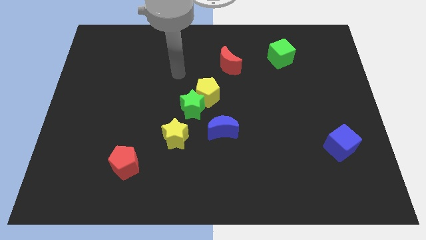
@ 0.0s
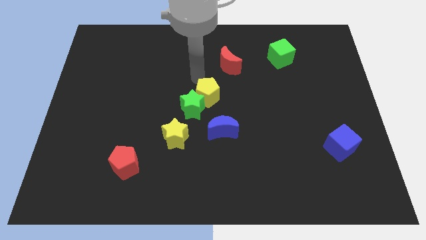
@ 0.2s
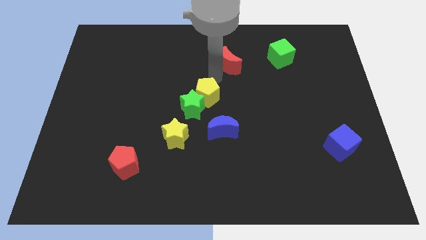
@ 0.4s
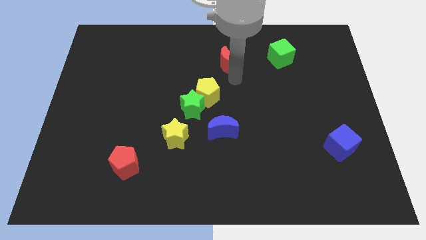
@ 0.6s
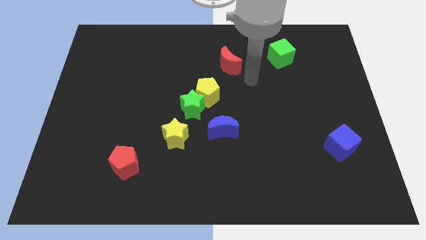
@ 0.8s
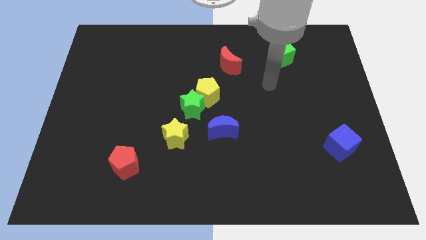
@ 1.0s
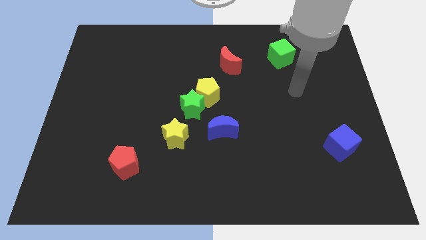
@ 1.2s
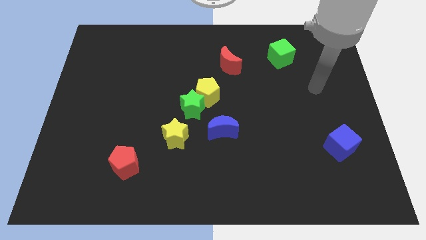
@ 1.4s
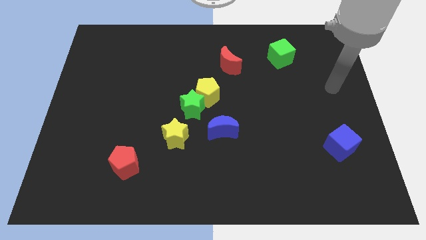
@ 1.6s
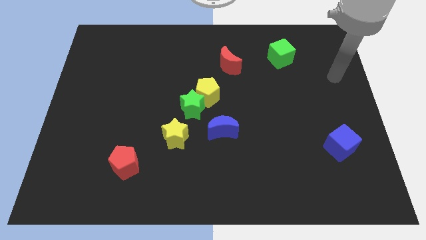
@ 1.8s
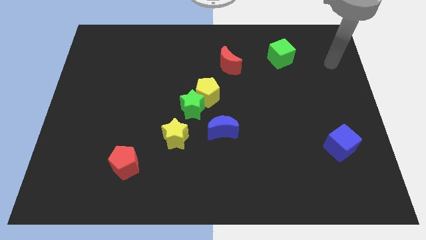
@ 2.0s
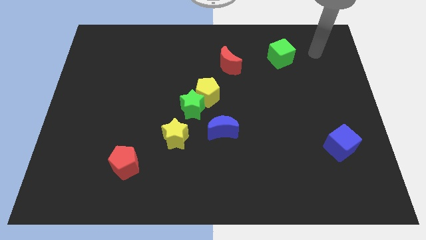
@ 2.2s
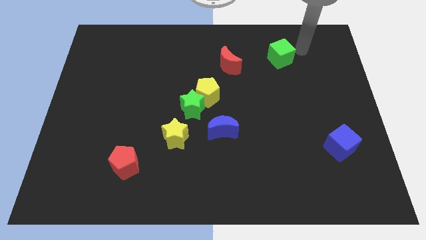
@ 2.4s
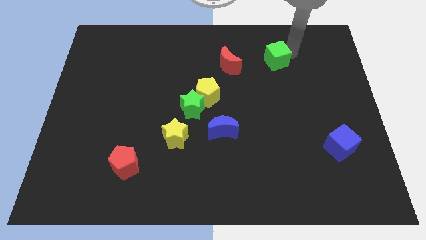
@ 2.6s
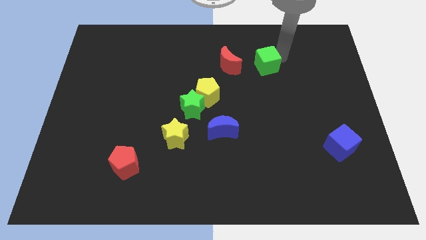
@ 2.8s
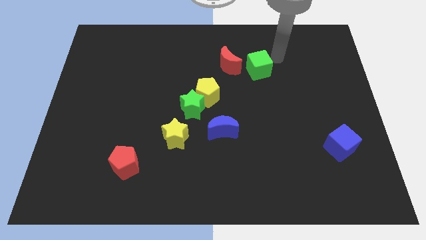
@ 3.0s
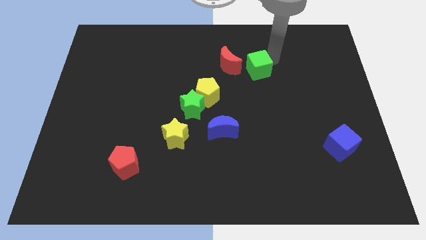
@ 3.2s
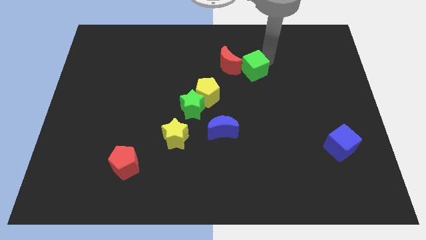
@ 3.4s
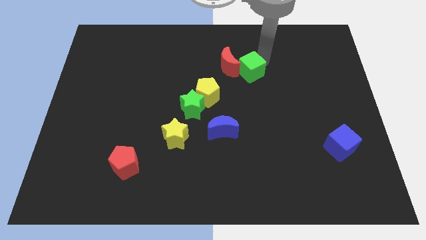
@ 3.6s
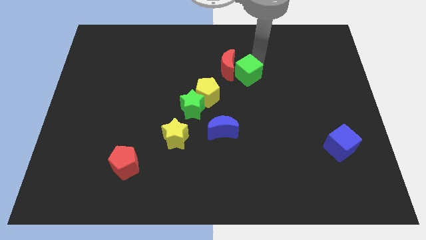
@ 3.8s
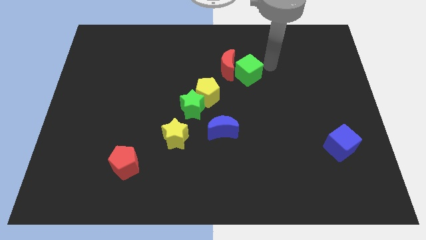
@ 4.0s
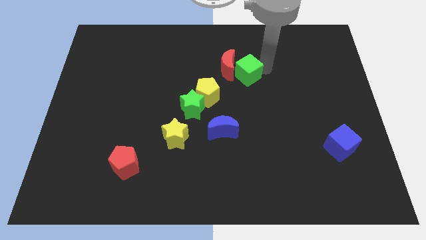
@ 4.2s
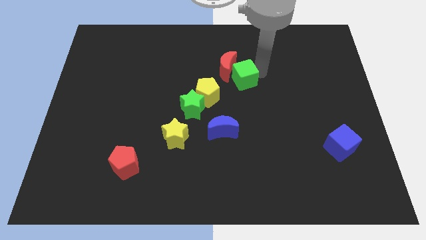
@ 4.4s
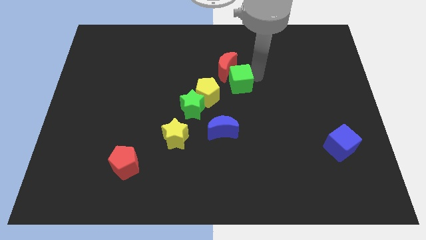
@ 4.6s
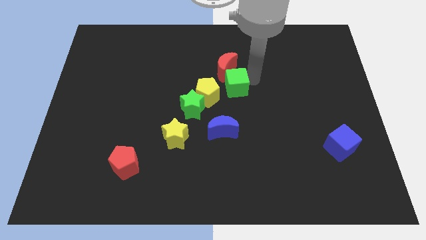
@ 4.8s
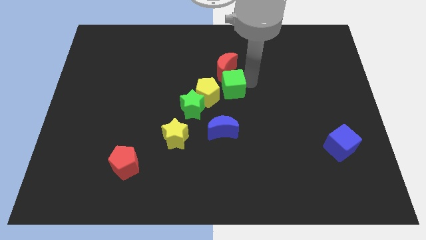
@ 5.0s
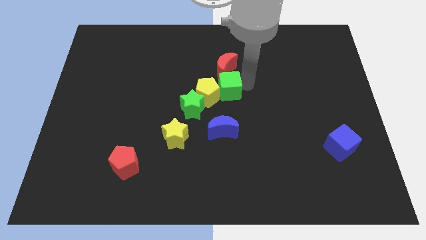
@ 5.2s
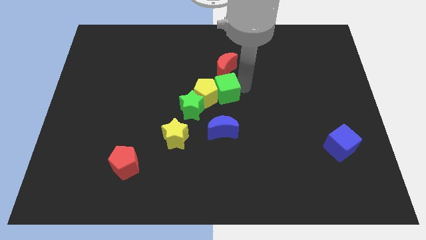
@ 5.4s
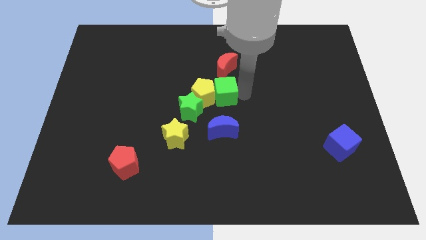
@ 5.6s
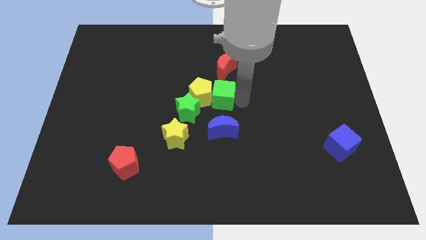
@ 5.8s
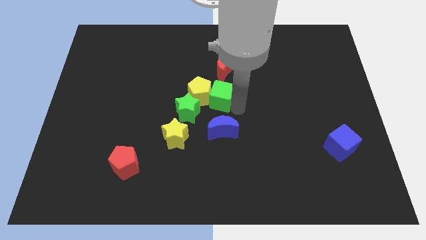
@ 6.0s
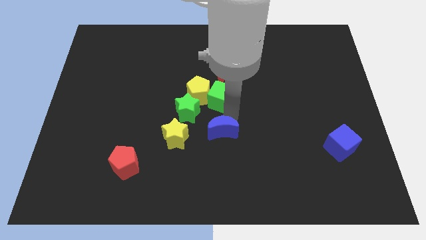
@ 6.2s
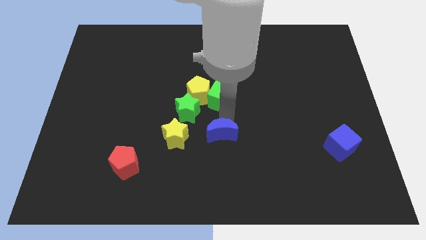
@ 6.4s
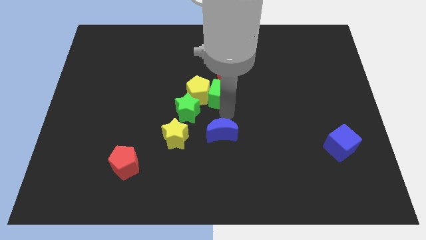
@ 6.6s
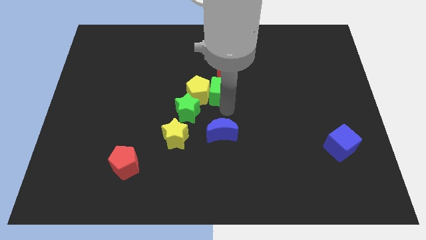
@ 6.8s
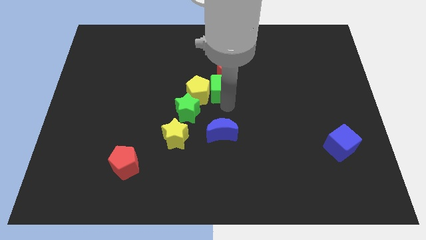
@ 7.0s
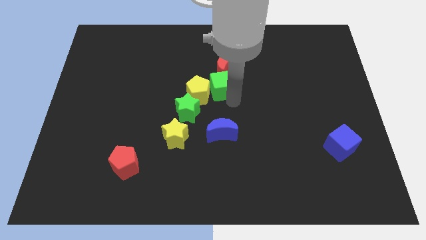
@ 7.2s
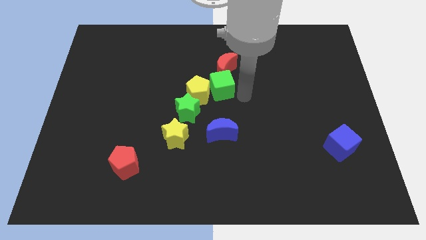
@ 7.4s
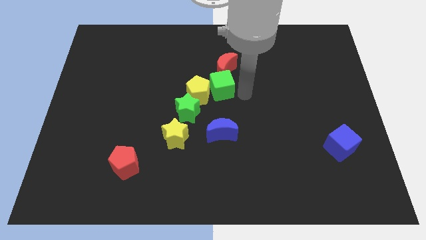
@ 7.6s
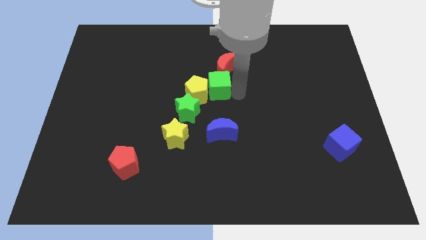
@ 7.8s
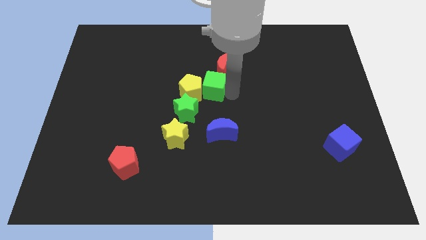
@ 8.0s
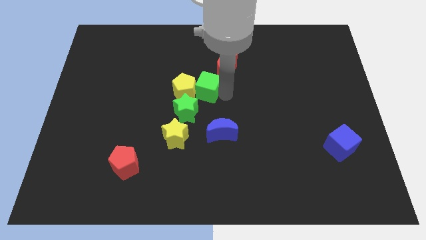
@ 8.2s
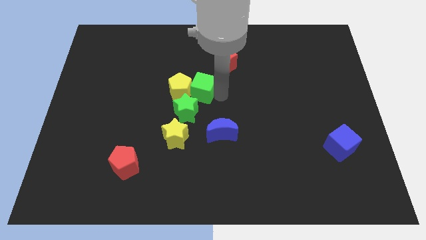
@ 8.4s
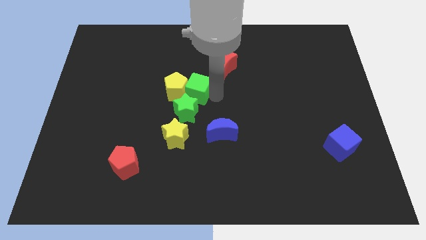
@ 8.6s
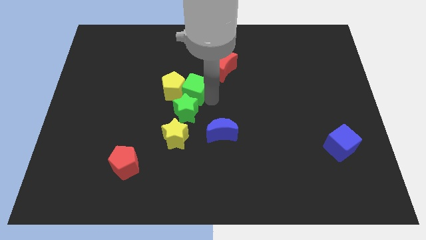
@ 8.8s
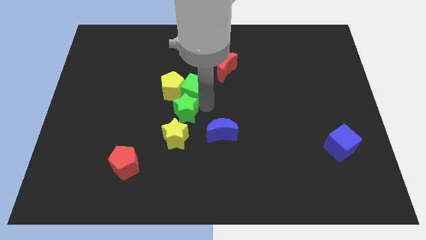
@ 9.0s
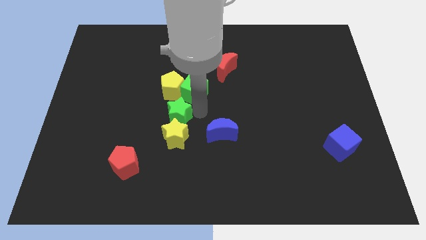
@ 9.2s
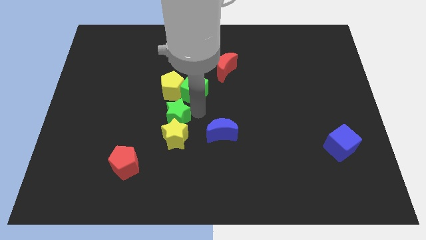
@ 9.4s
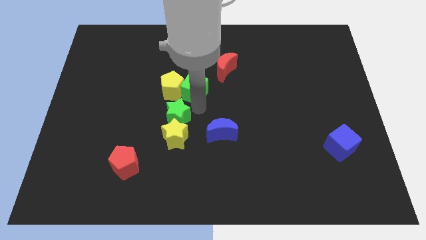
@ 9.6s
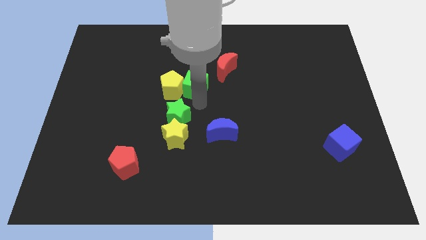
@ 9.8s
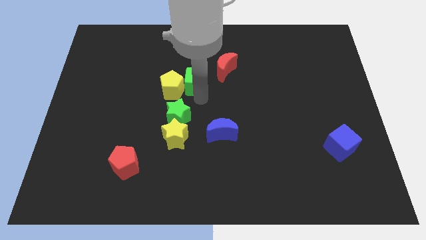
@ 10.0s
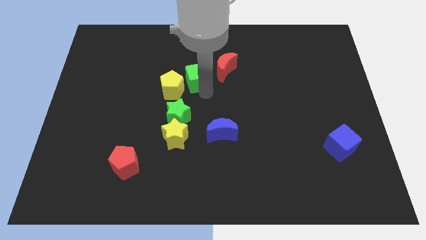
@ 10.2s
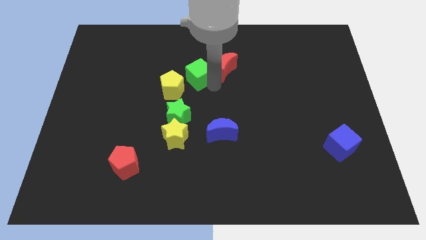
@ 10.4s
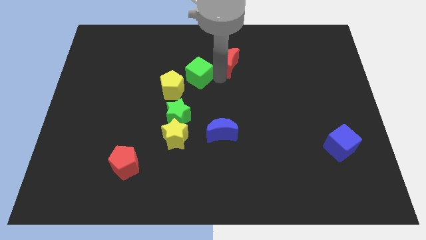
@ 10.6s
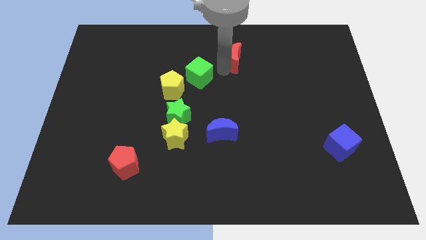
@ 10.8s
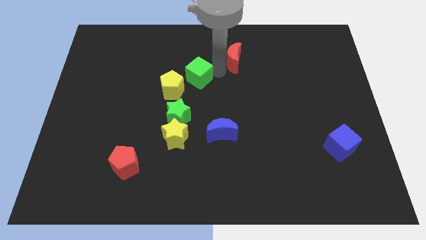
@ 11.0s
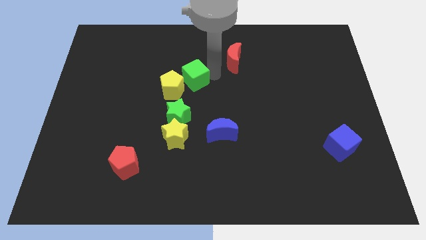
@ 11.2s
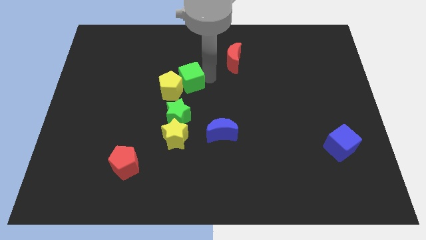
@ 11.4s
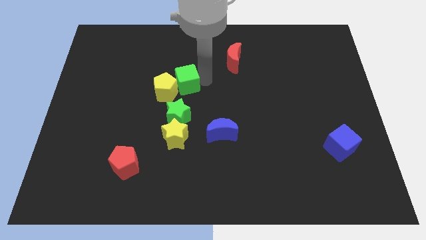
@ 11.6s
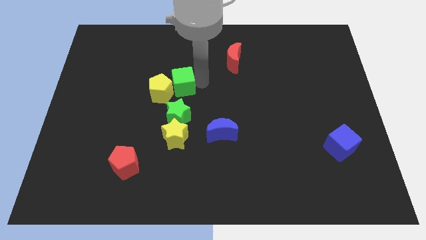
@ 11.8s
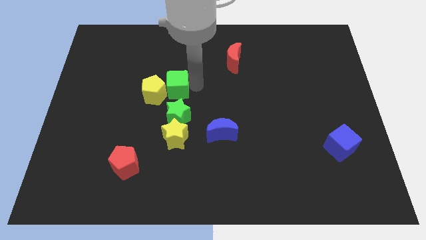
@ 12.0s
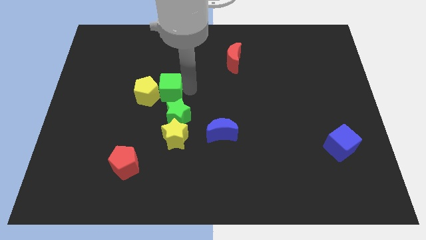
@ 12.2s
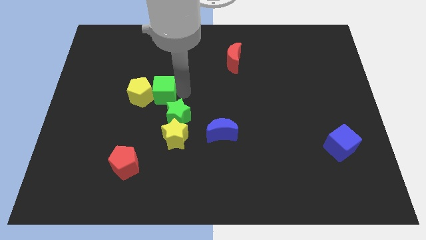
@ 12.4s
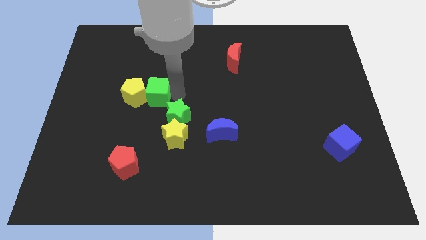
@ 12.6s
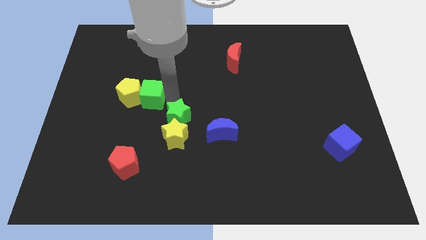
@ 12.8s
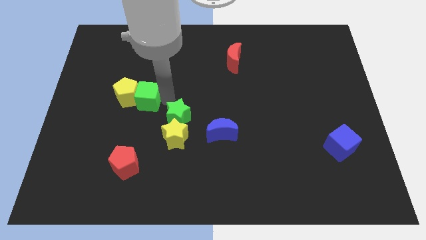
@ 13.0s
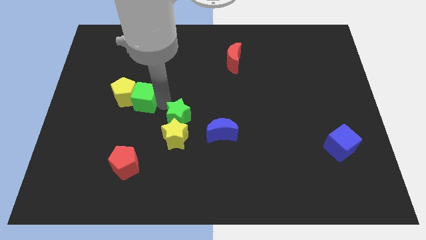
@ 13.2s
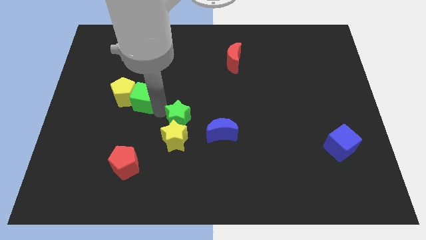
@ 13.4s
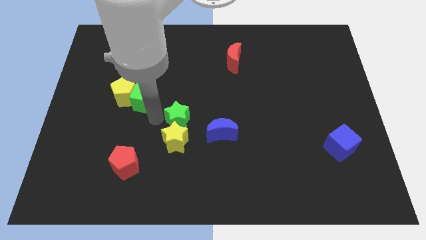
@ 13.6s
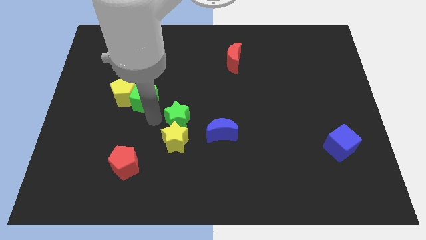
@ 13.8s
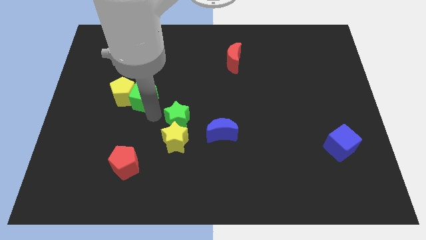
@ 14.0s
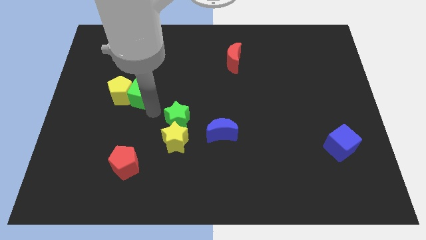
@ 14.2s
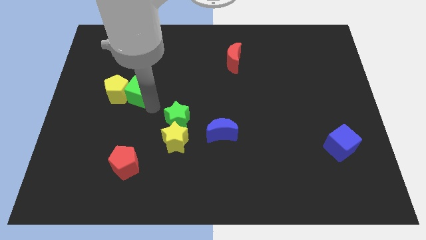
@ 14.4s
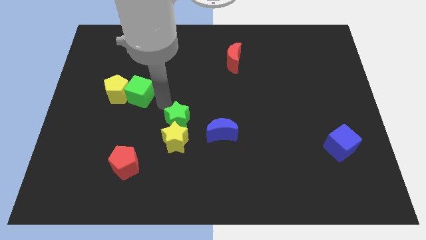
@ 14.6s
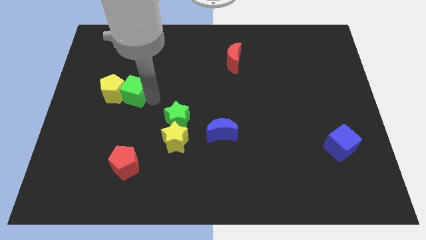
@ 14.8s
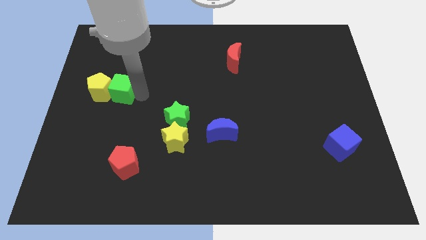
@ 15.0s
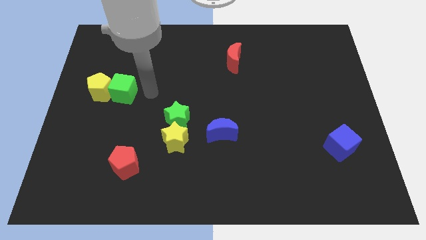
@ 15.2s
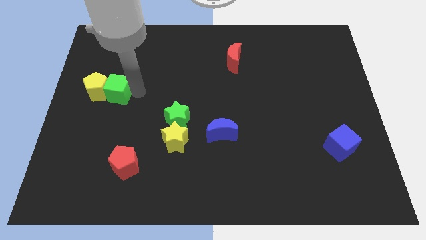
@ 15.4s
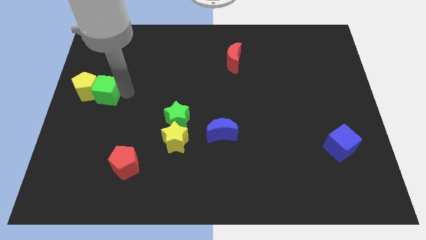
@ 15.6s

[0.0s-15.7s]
slide the green cube to the left side of the board
